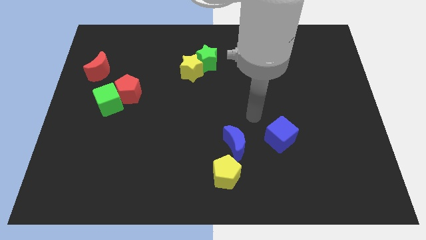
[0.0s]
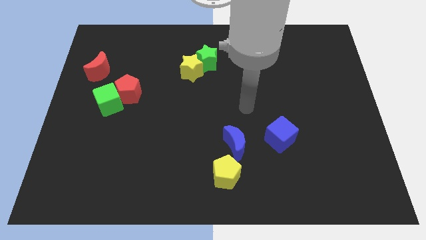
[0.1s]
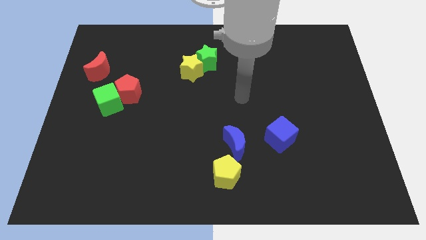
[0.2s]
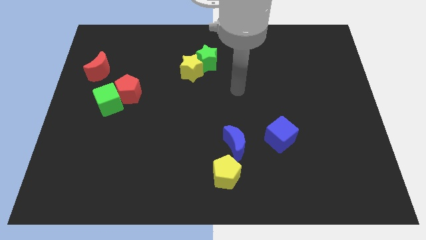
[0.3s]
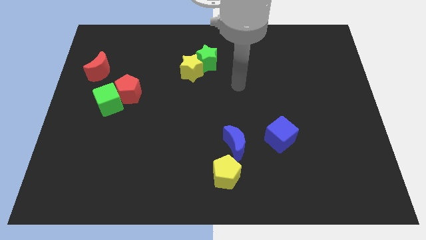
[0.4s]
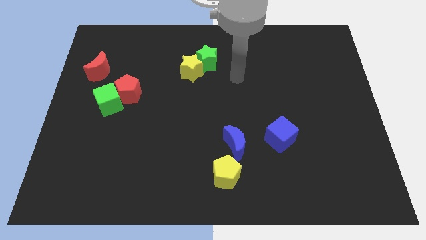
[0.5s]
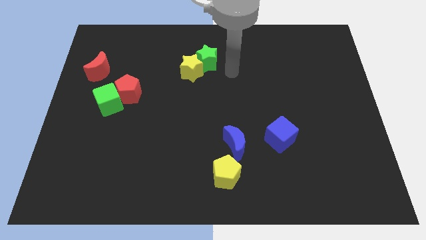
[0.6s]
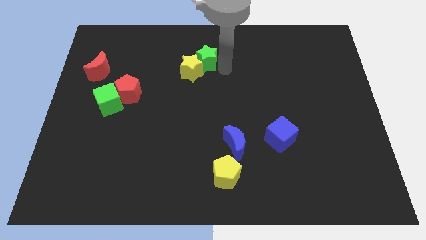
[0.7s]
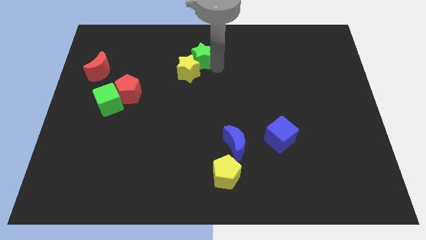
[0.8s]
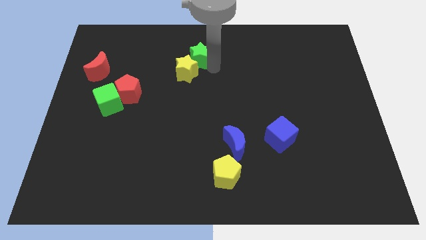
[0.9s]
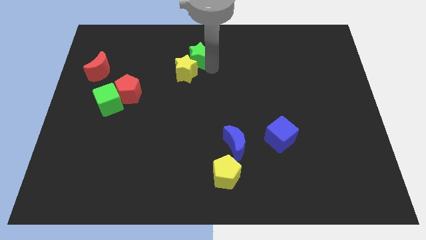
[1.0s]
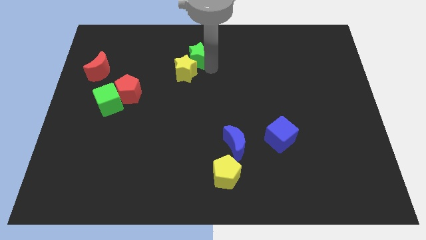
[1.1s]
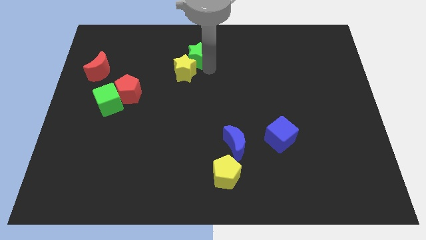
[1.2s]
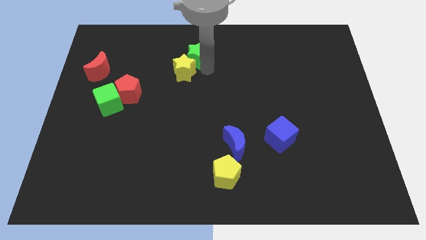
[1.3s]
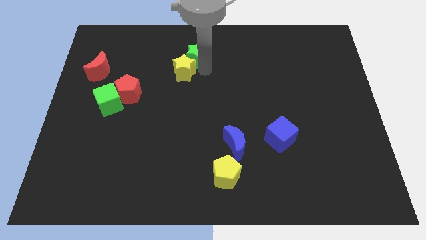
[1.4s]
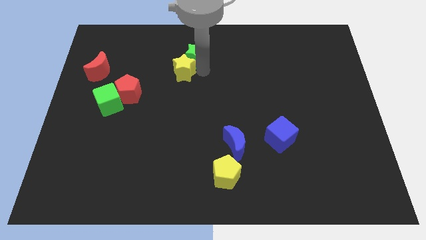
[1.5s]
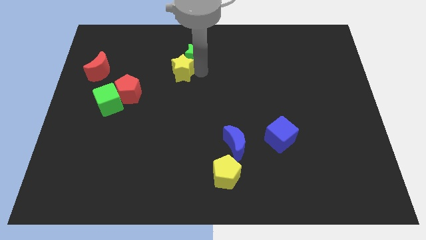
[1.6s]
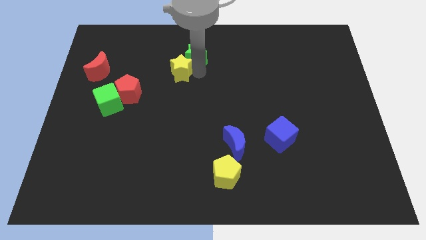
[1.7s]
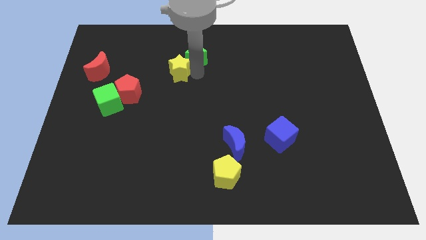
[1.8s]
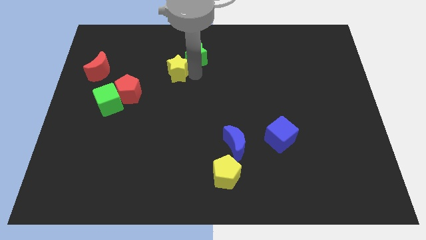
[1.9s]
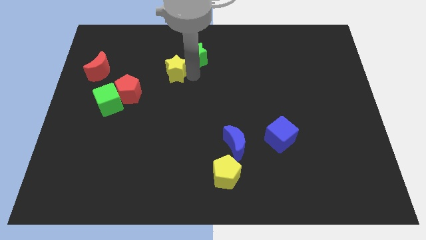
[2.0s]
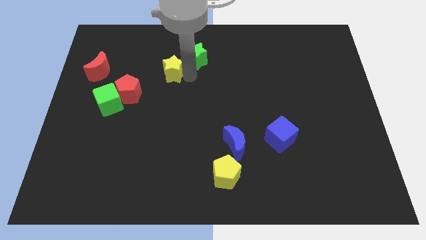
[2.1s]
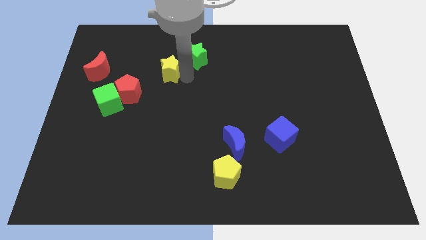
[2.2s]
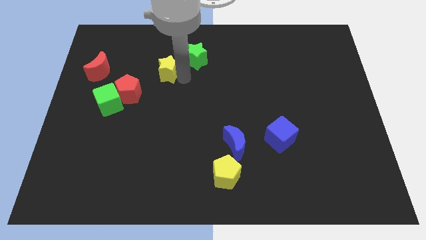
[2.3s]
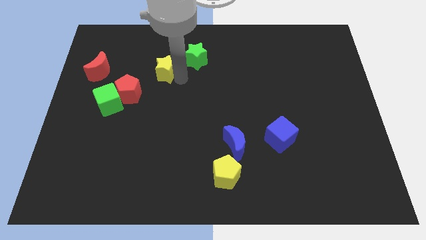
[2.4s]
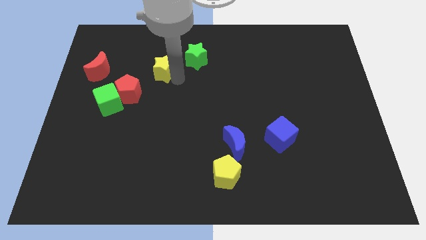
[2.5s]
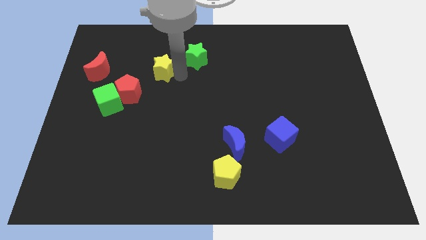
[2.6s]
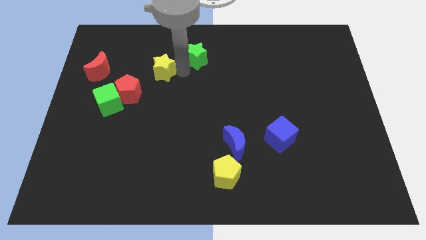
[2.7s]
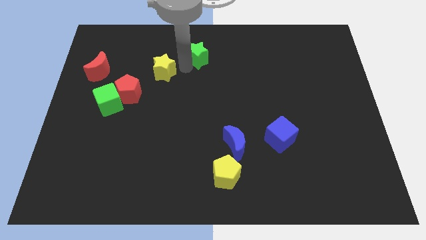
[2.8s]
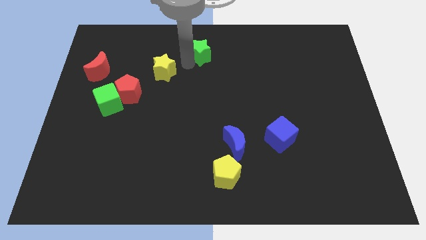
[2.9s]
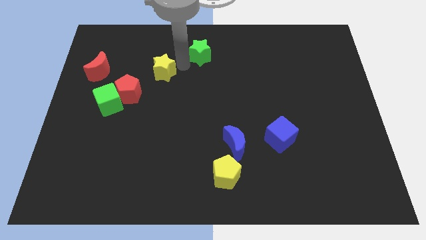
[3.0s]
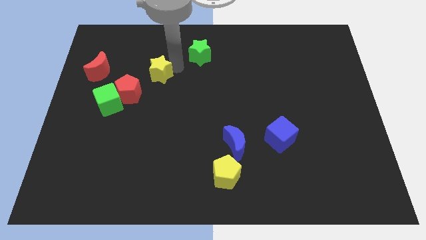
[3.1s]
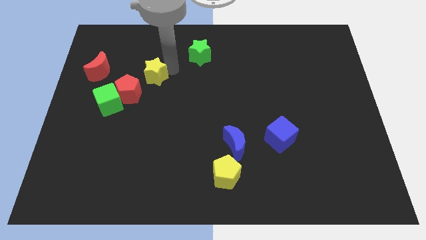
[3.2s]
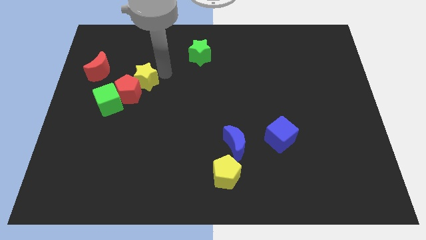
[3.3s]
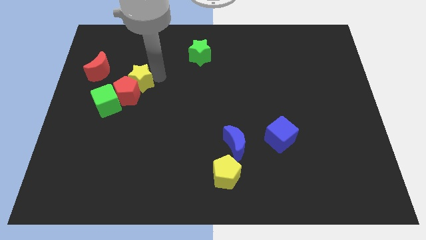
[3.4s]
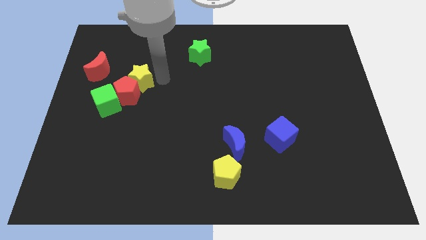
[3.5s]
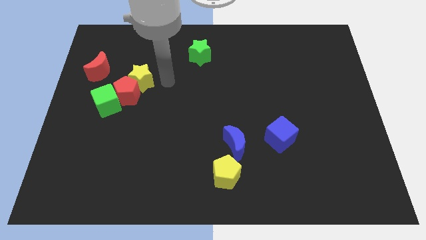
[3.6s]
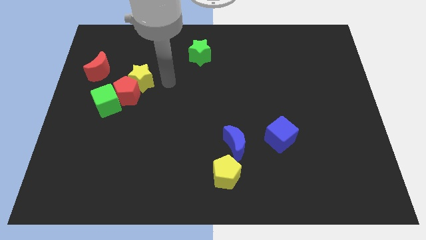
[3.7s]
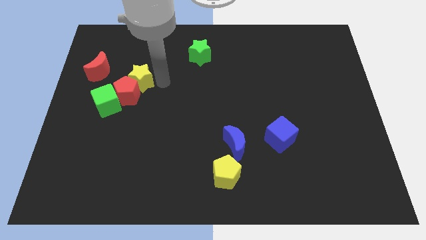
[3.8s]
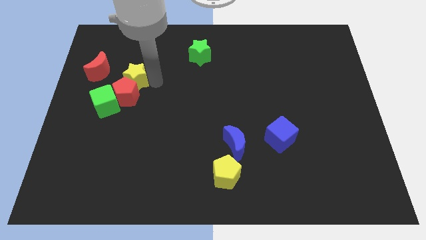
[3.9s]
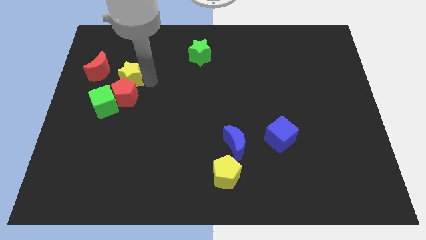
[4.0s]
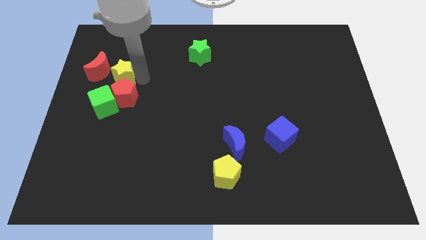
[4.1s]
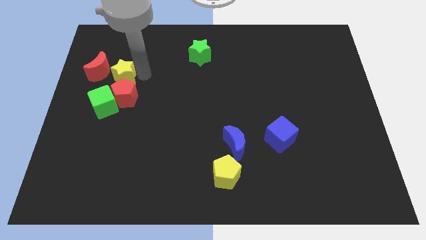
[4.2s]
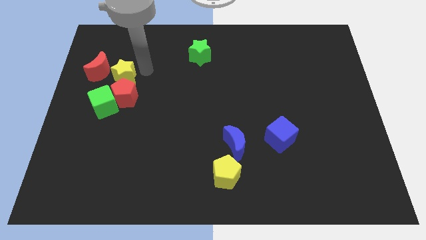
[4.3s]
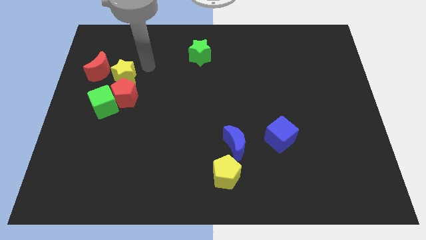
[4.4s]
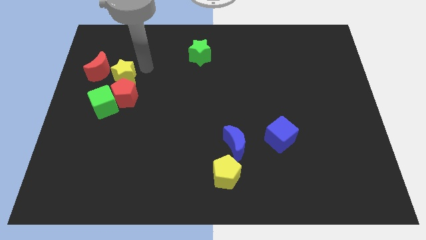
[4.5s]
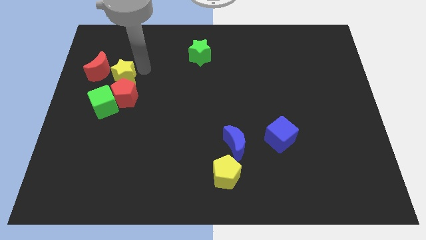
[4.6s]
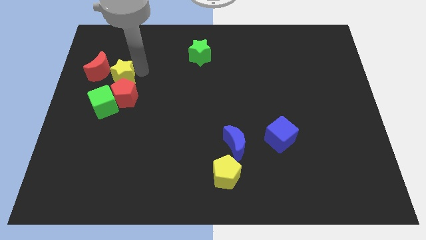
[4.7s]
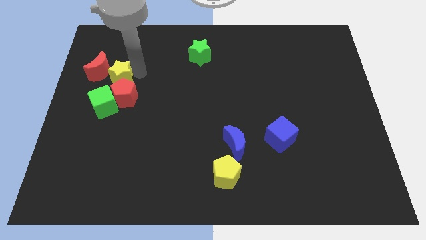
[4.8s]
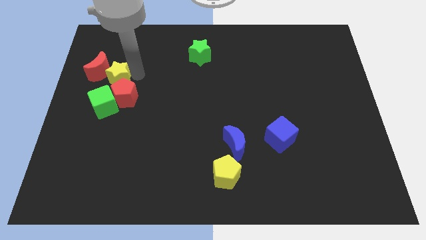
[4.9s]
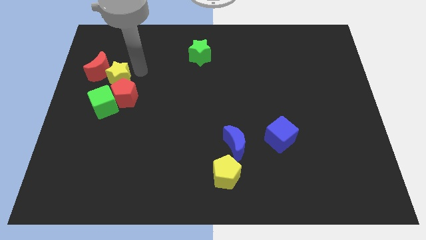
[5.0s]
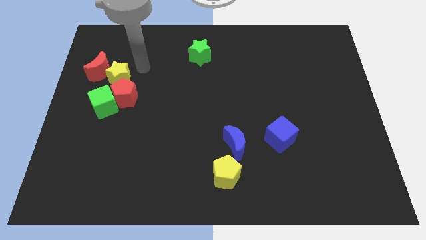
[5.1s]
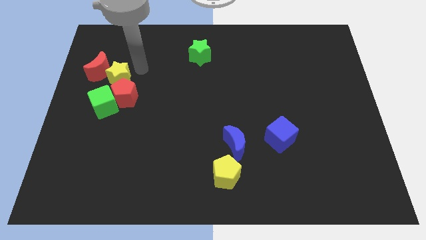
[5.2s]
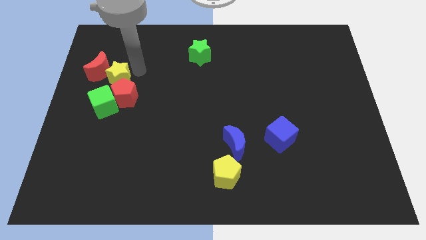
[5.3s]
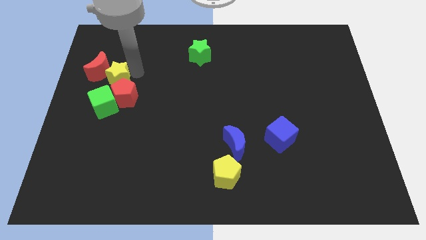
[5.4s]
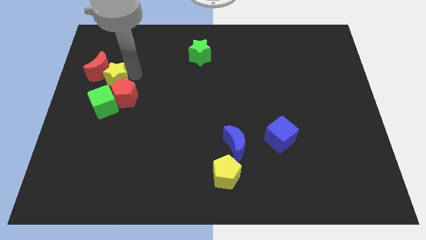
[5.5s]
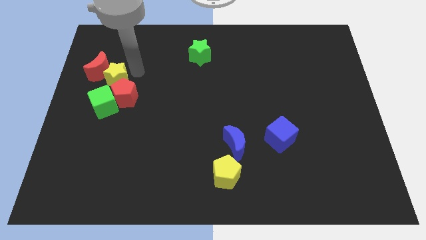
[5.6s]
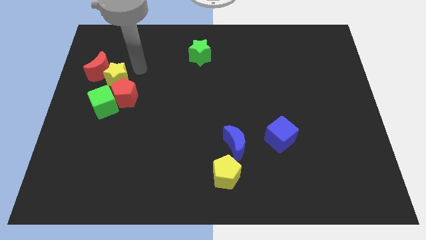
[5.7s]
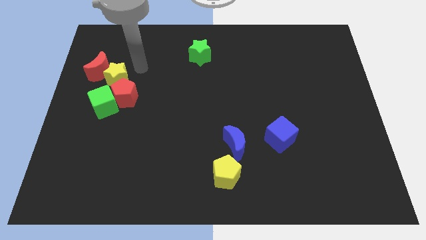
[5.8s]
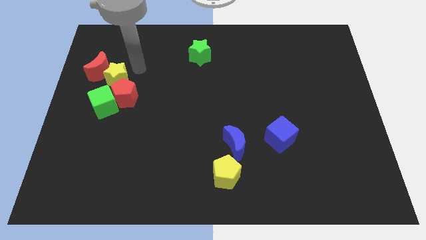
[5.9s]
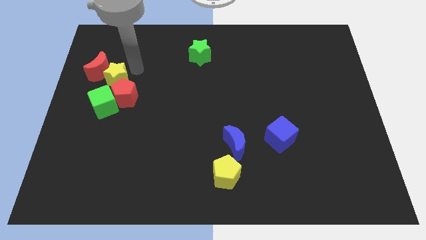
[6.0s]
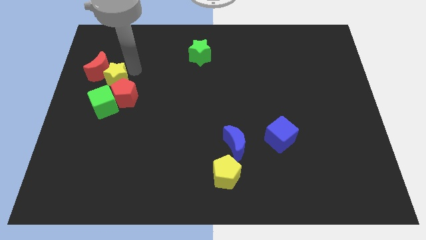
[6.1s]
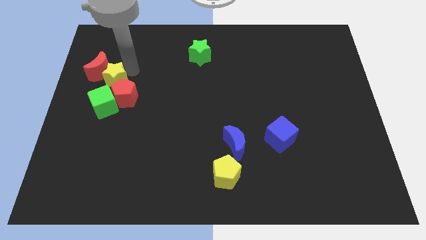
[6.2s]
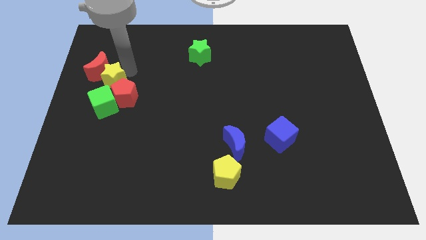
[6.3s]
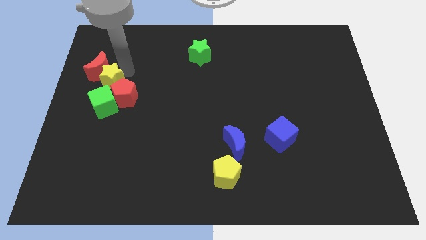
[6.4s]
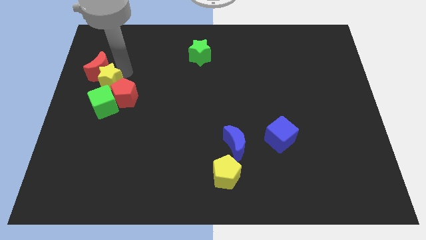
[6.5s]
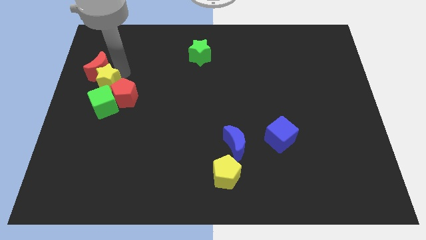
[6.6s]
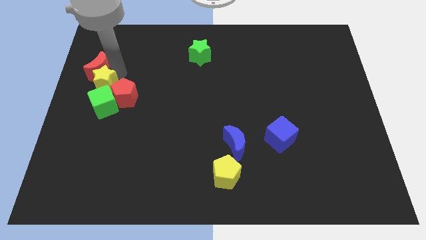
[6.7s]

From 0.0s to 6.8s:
slide the yellow star to the left side
